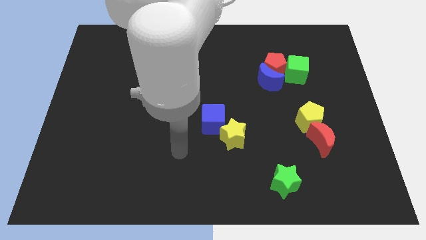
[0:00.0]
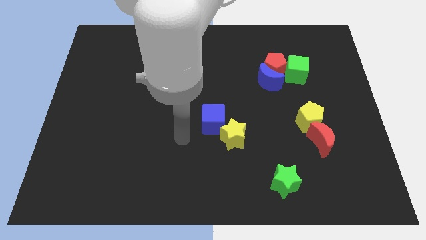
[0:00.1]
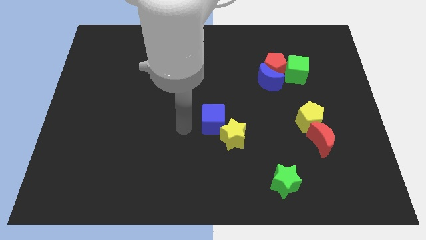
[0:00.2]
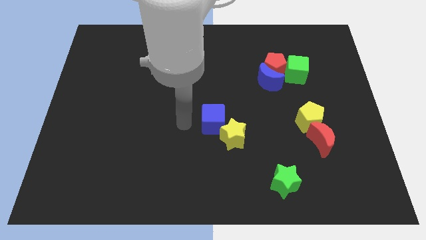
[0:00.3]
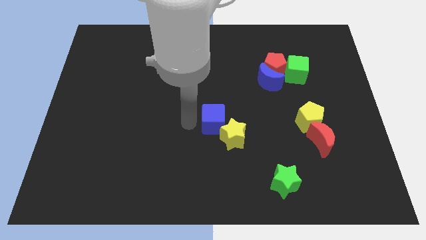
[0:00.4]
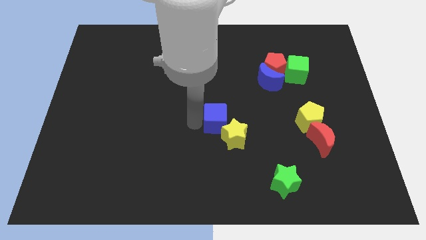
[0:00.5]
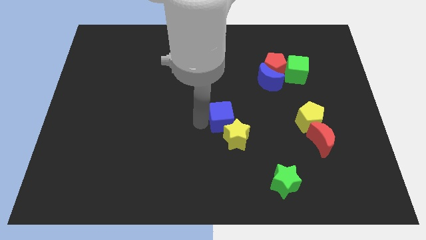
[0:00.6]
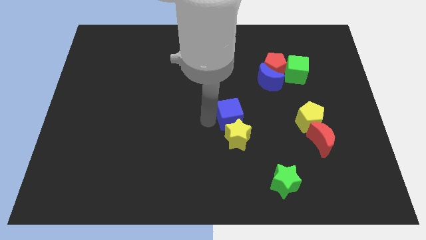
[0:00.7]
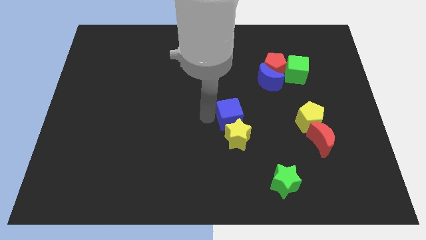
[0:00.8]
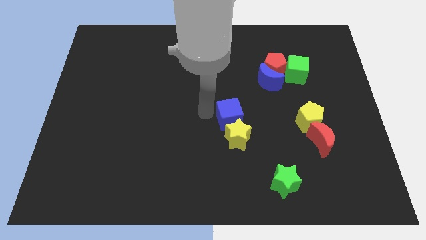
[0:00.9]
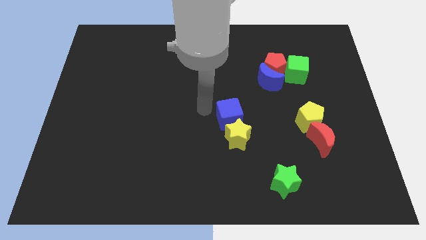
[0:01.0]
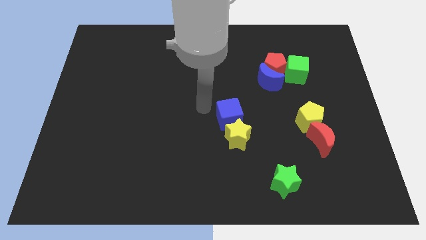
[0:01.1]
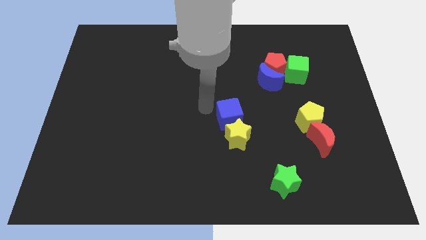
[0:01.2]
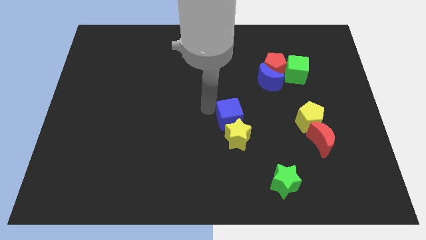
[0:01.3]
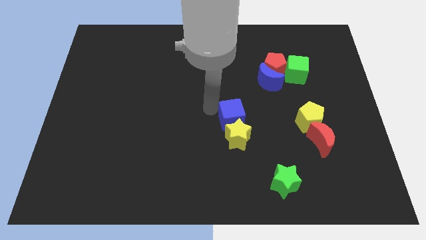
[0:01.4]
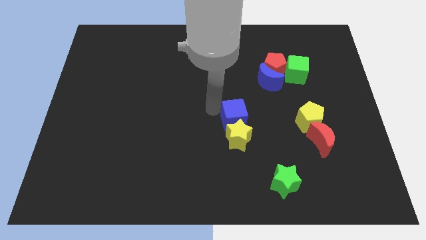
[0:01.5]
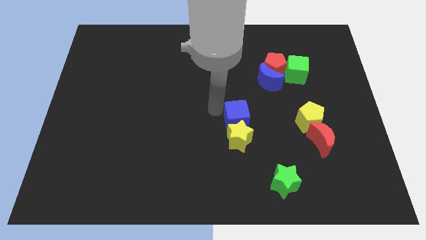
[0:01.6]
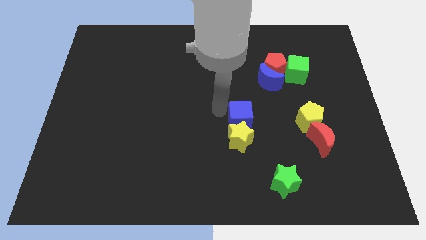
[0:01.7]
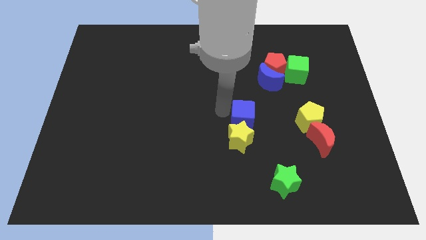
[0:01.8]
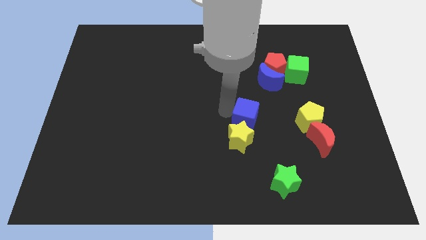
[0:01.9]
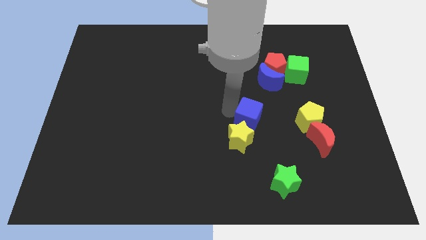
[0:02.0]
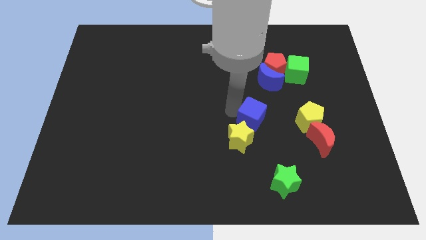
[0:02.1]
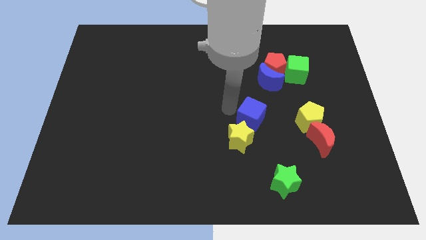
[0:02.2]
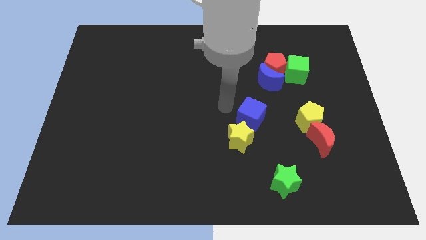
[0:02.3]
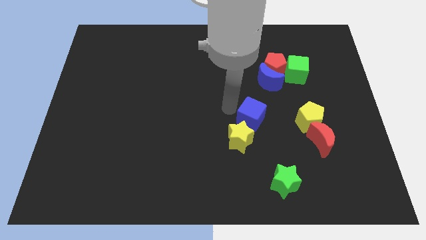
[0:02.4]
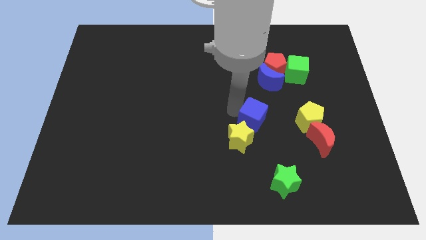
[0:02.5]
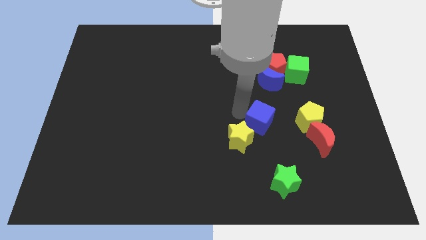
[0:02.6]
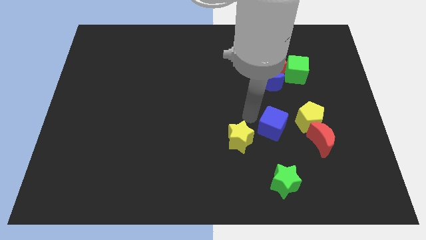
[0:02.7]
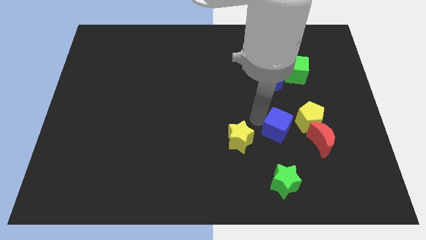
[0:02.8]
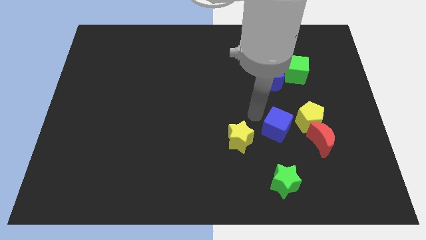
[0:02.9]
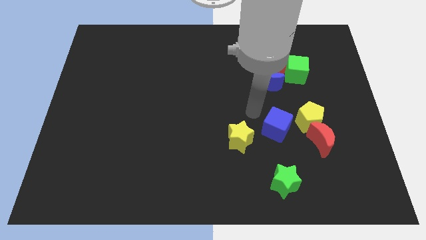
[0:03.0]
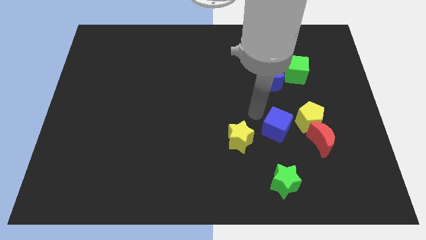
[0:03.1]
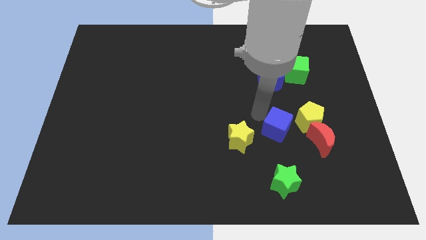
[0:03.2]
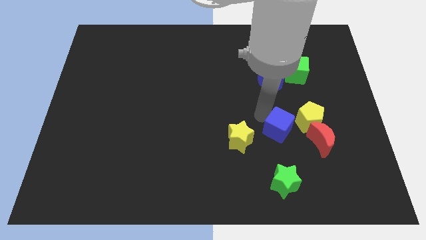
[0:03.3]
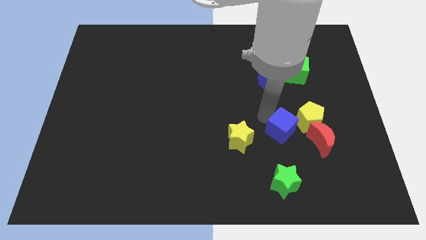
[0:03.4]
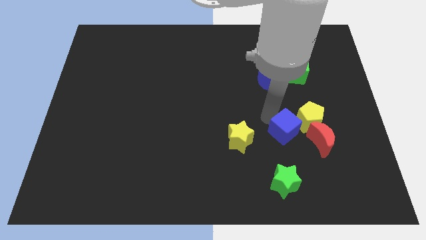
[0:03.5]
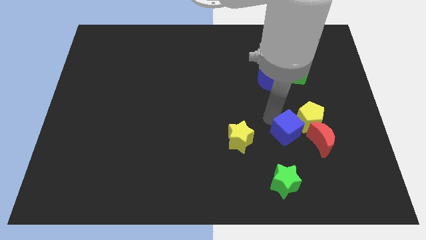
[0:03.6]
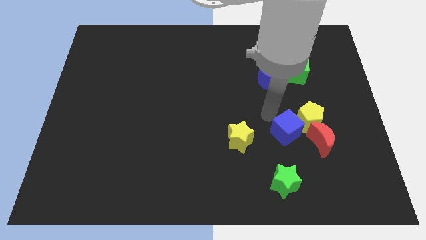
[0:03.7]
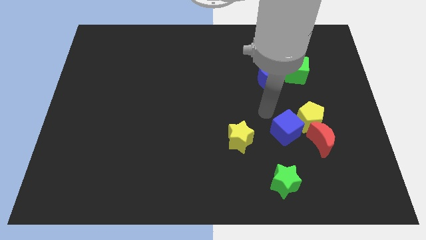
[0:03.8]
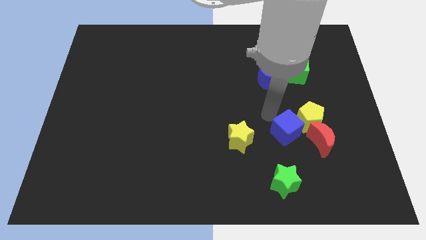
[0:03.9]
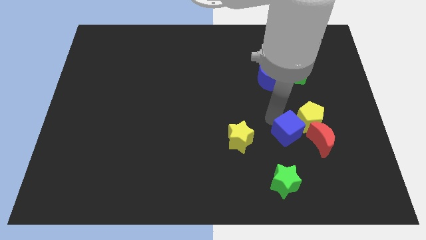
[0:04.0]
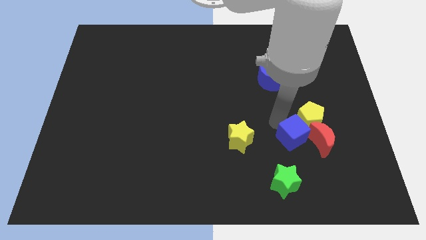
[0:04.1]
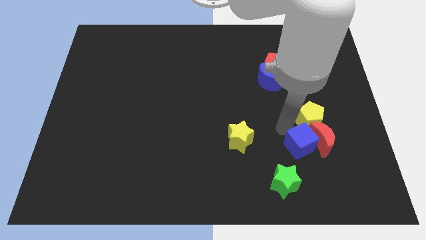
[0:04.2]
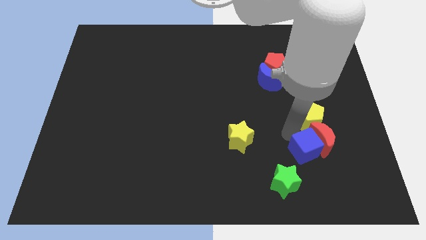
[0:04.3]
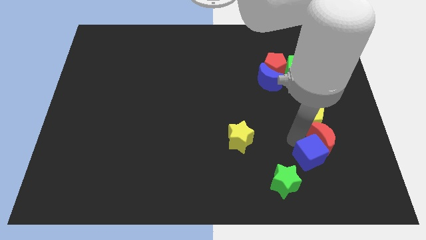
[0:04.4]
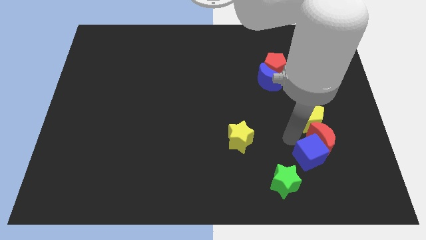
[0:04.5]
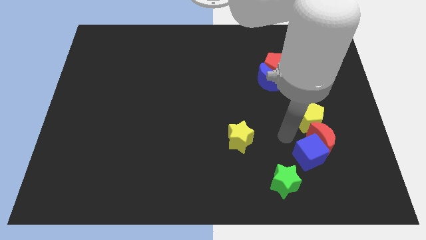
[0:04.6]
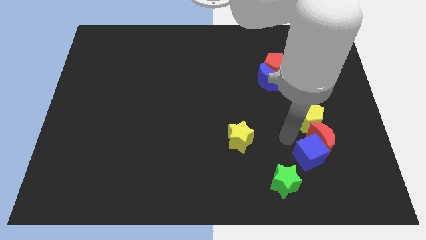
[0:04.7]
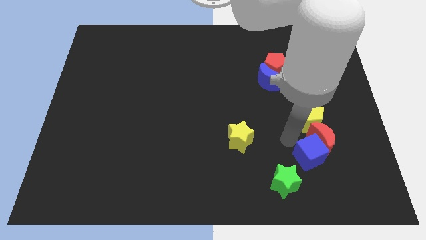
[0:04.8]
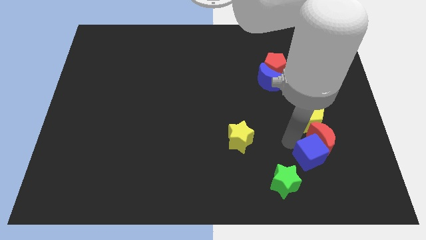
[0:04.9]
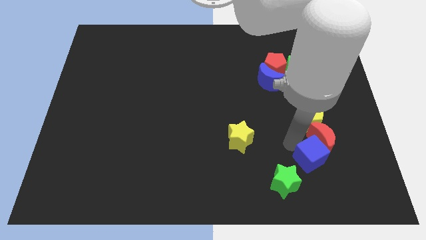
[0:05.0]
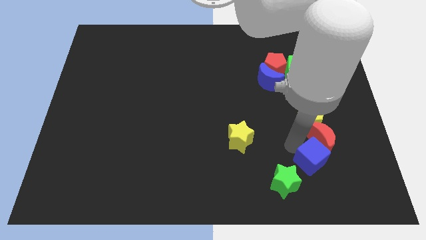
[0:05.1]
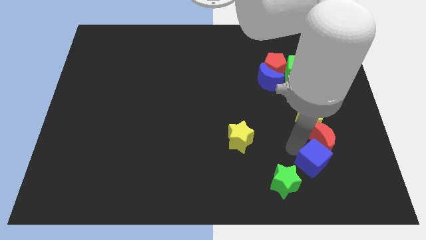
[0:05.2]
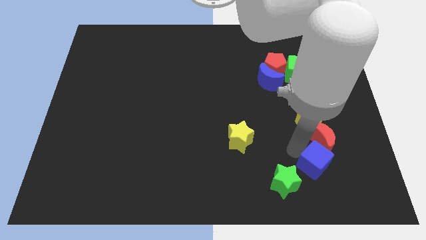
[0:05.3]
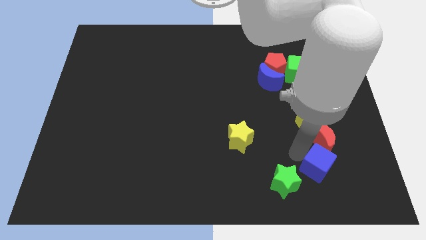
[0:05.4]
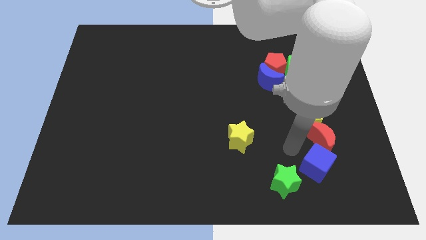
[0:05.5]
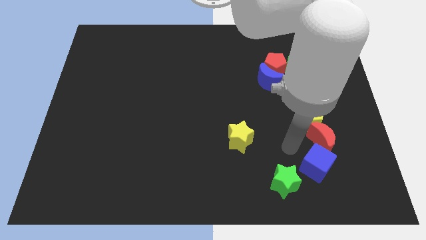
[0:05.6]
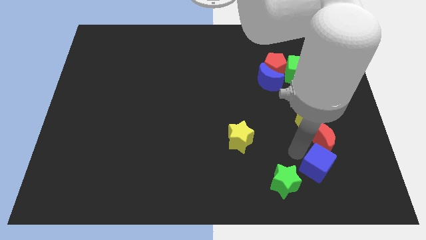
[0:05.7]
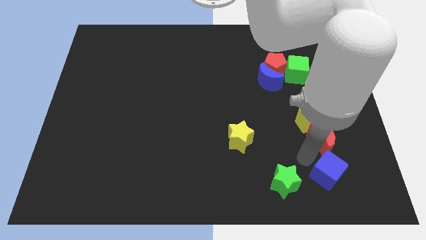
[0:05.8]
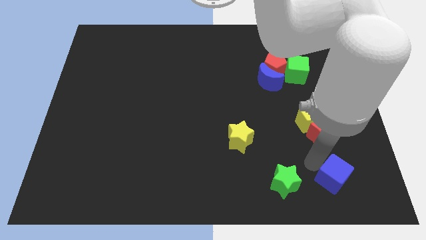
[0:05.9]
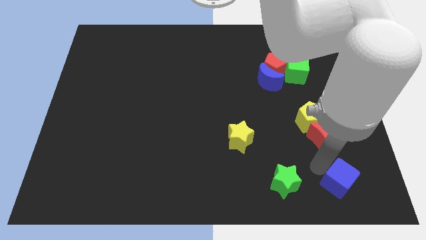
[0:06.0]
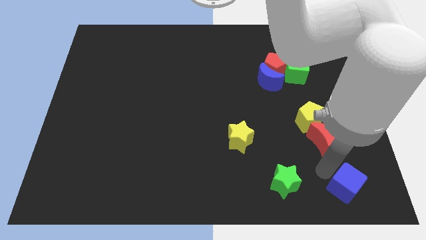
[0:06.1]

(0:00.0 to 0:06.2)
push the blue cube to the lower right corner
